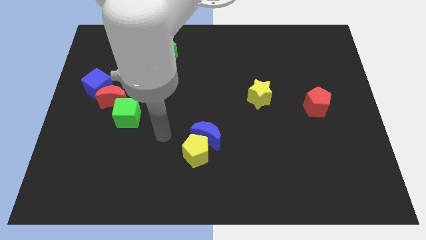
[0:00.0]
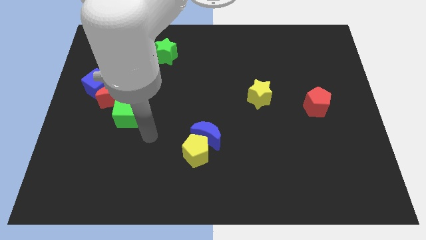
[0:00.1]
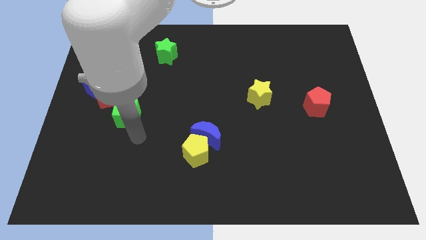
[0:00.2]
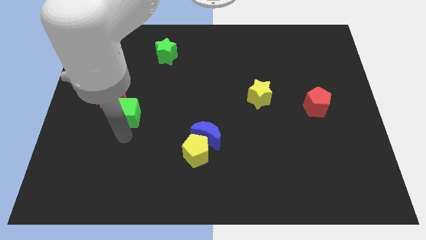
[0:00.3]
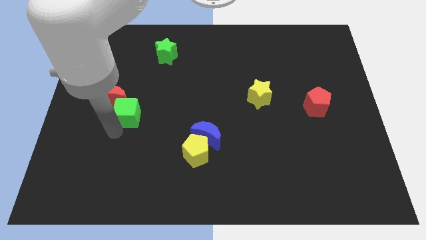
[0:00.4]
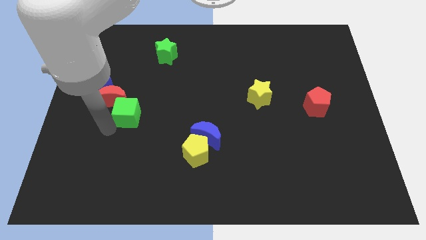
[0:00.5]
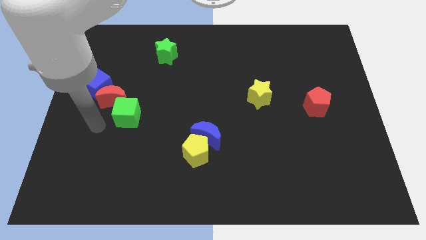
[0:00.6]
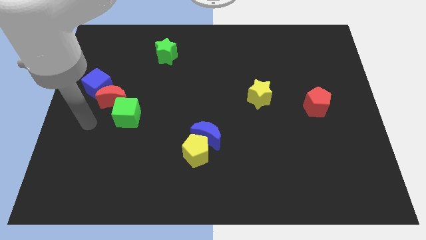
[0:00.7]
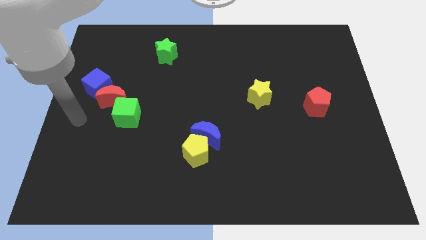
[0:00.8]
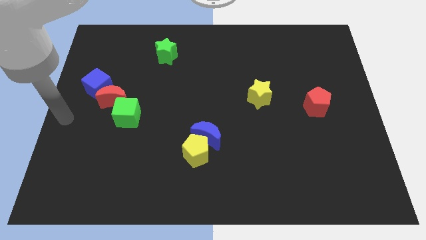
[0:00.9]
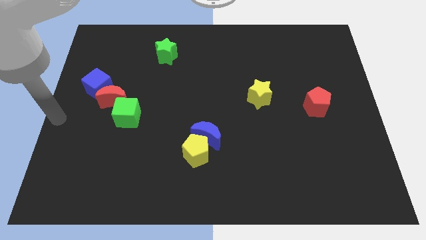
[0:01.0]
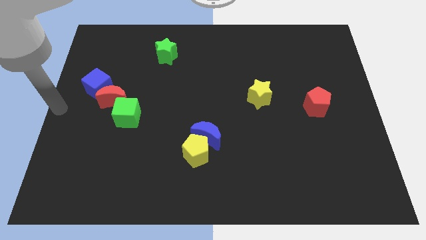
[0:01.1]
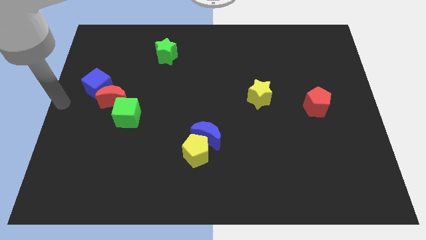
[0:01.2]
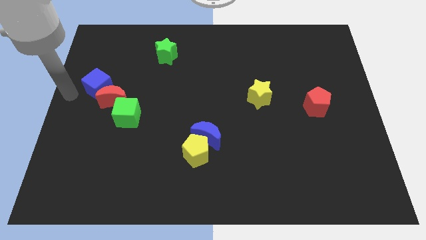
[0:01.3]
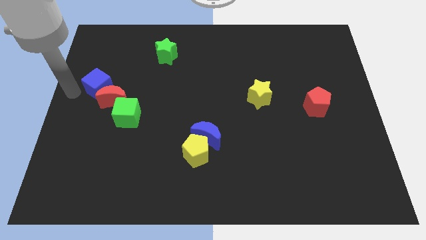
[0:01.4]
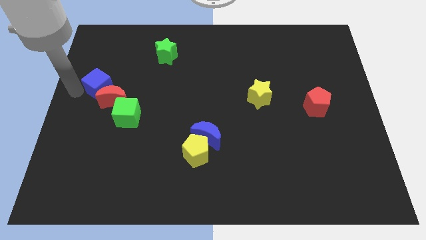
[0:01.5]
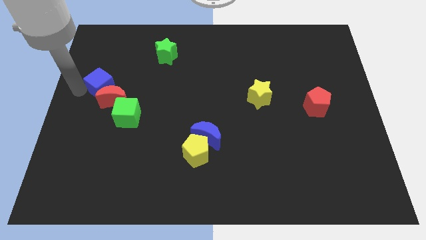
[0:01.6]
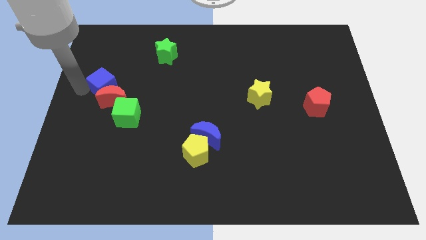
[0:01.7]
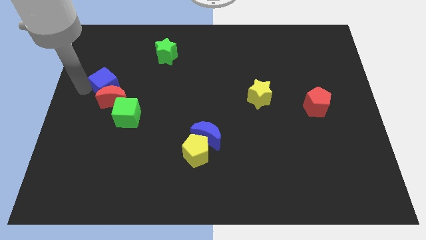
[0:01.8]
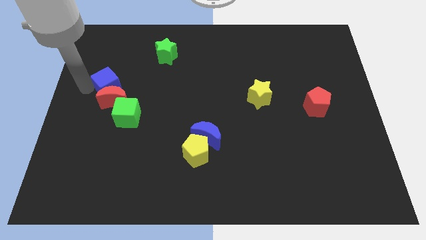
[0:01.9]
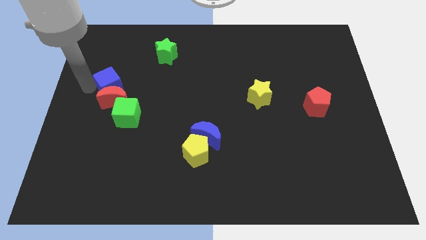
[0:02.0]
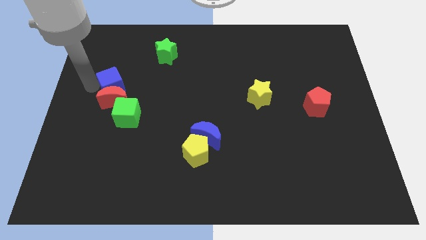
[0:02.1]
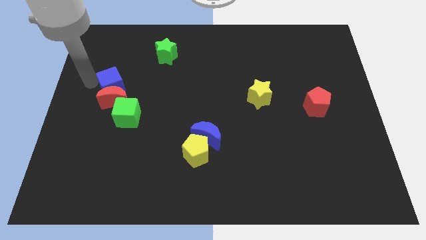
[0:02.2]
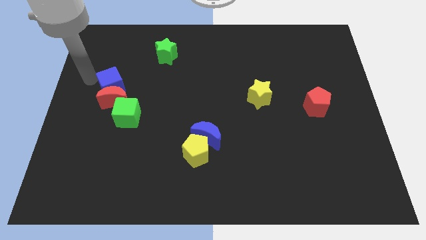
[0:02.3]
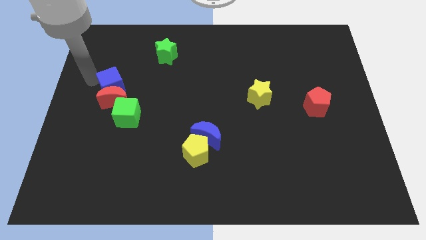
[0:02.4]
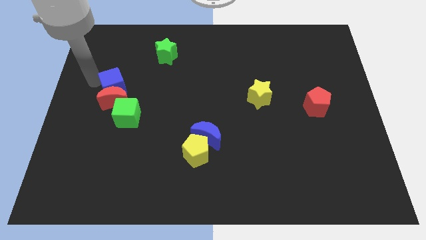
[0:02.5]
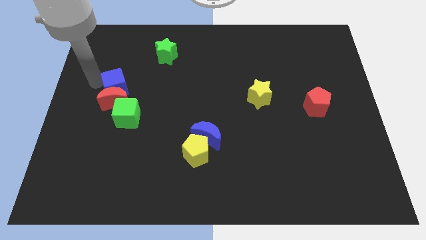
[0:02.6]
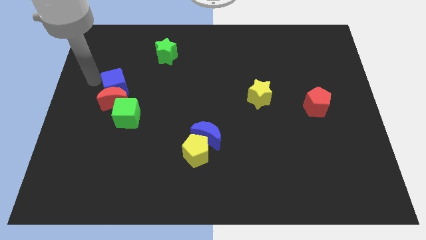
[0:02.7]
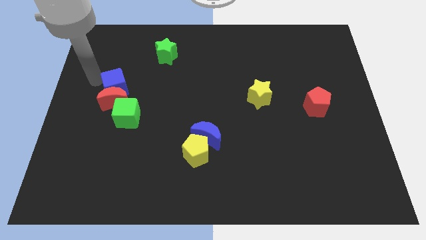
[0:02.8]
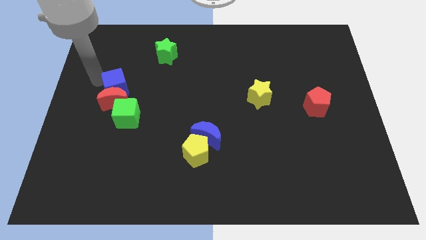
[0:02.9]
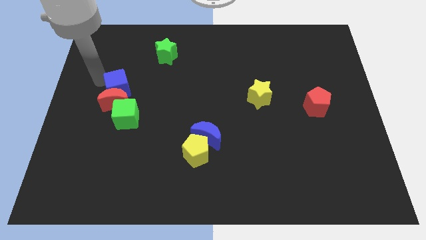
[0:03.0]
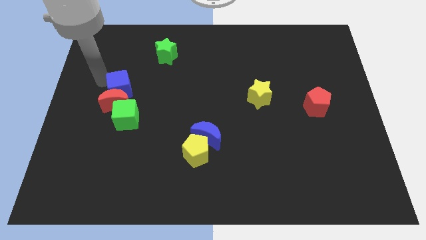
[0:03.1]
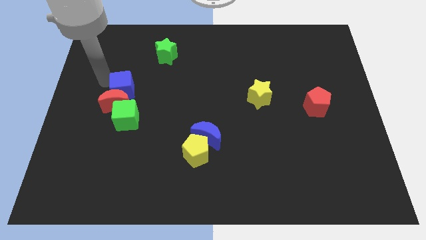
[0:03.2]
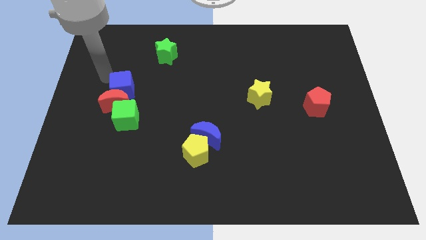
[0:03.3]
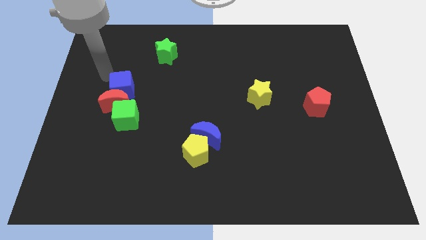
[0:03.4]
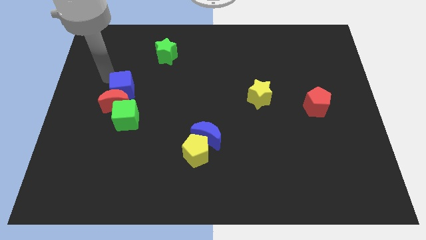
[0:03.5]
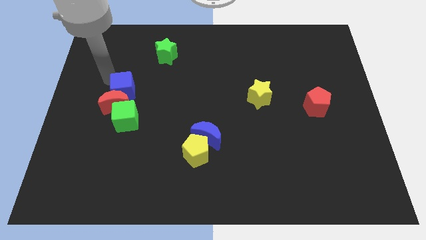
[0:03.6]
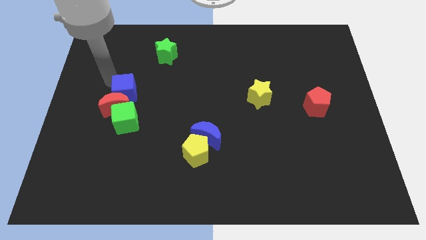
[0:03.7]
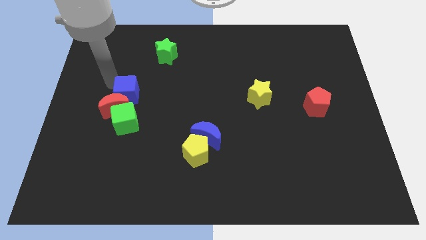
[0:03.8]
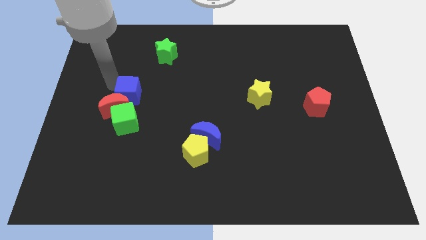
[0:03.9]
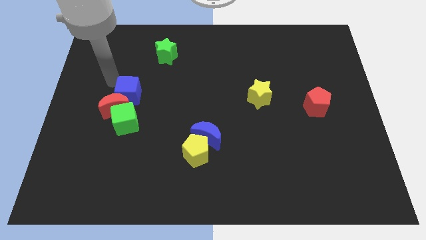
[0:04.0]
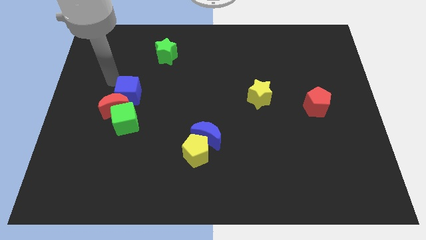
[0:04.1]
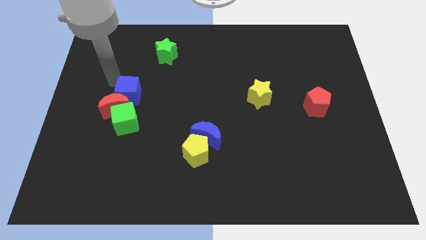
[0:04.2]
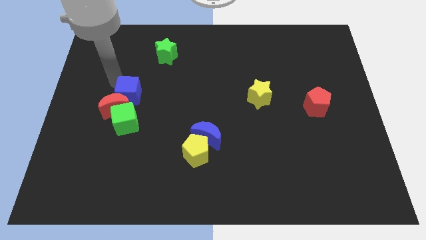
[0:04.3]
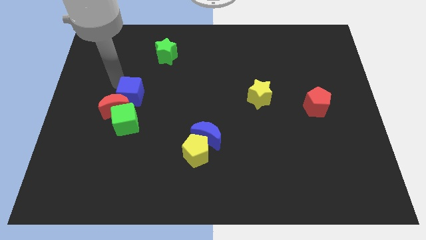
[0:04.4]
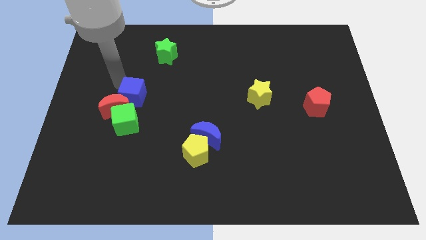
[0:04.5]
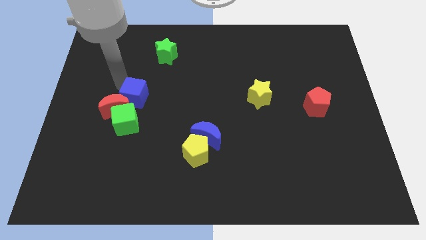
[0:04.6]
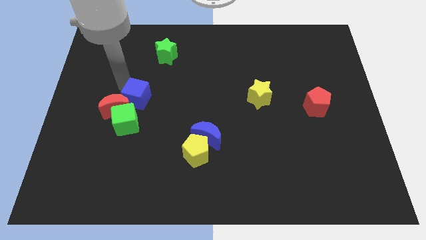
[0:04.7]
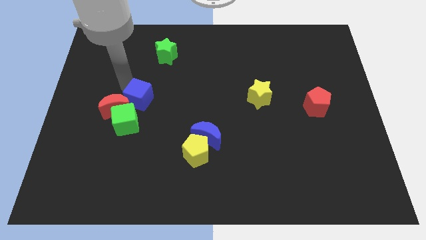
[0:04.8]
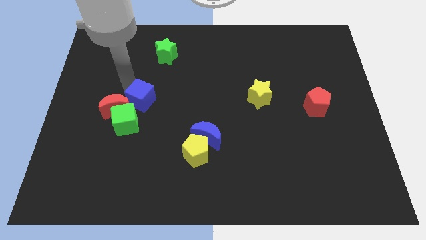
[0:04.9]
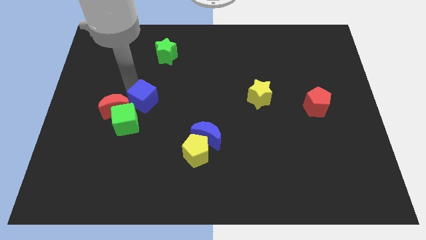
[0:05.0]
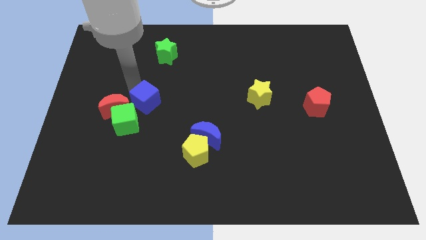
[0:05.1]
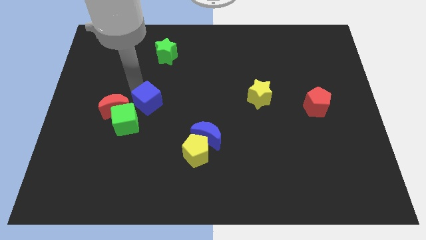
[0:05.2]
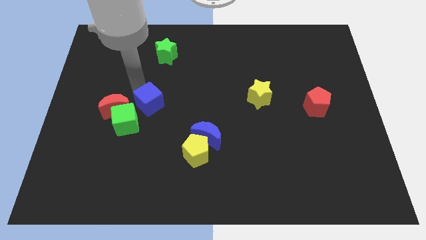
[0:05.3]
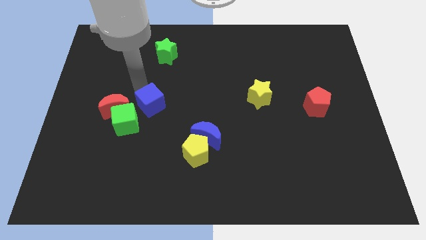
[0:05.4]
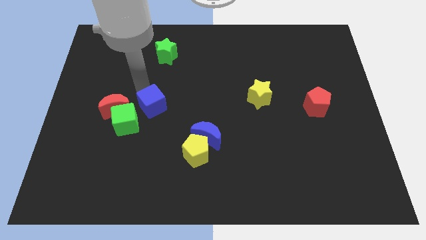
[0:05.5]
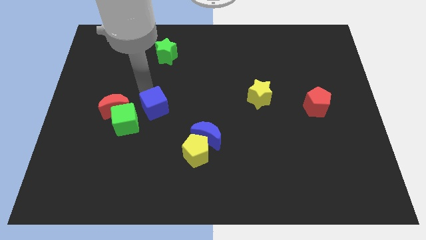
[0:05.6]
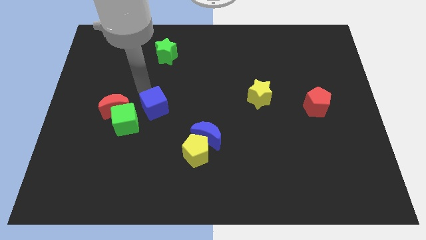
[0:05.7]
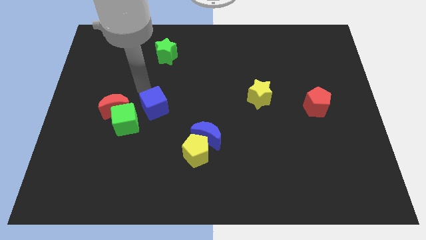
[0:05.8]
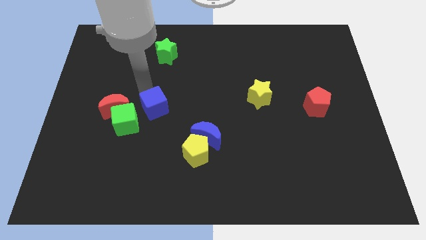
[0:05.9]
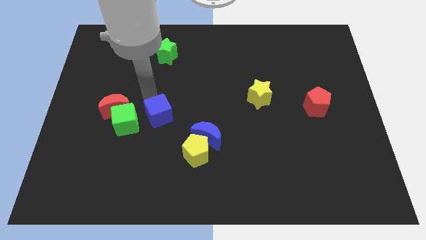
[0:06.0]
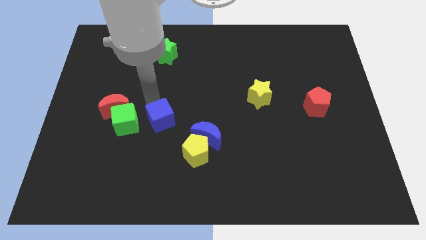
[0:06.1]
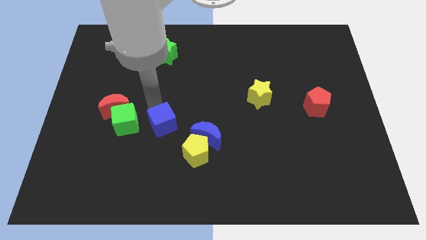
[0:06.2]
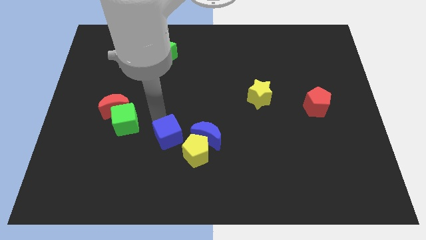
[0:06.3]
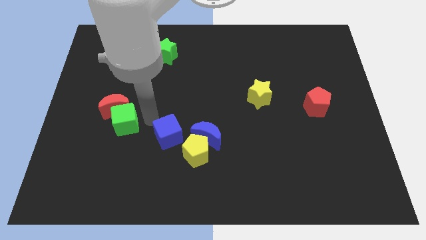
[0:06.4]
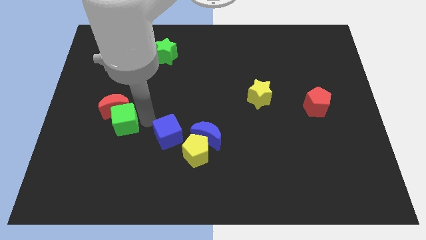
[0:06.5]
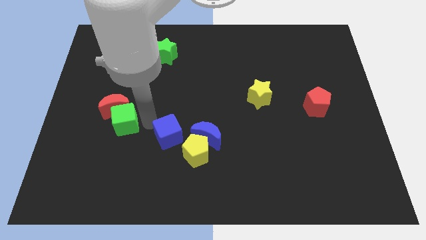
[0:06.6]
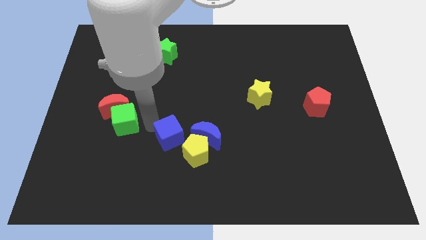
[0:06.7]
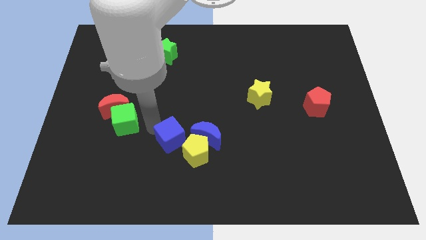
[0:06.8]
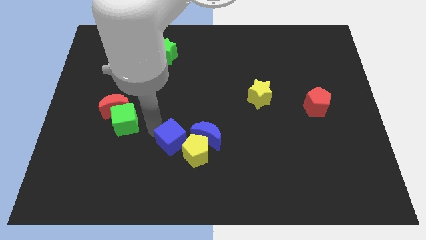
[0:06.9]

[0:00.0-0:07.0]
push the blue cube next to the yellow pentagon

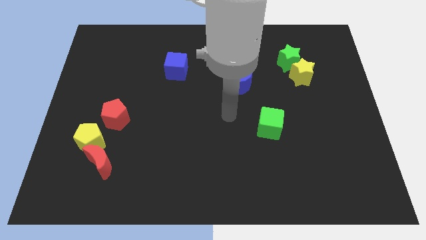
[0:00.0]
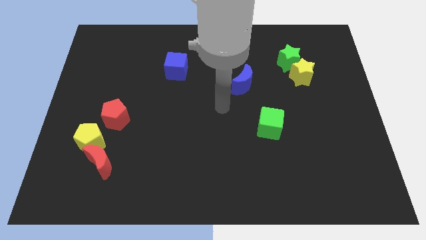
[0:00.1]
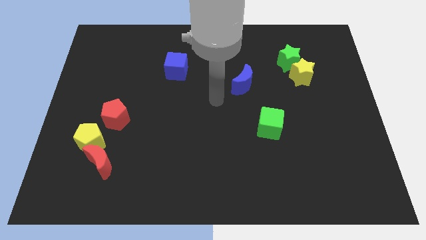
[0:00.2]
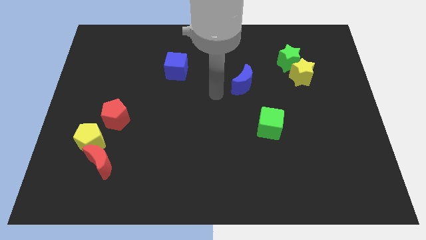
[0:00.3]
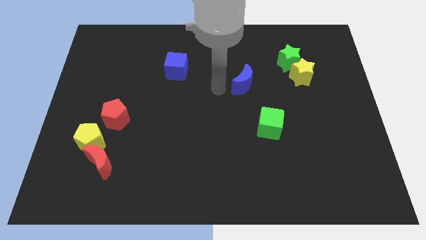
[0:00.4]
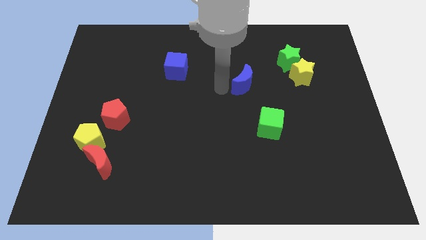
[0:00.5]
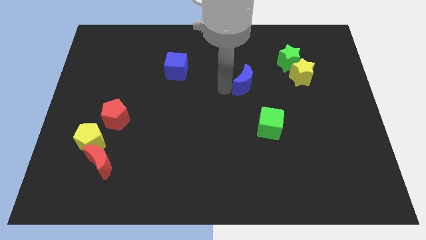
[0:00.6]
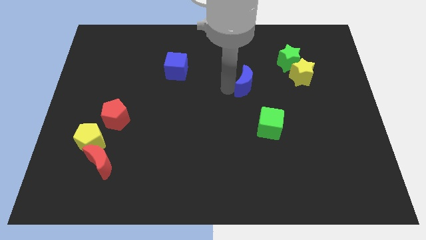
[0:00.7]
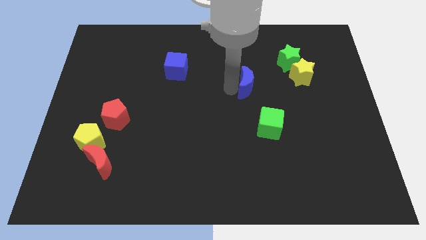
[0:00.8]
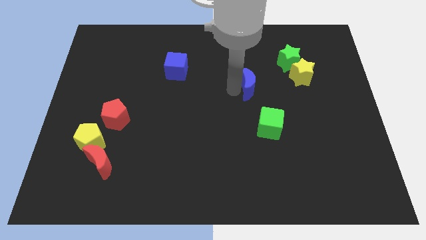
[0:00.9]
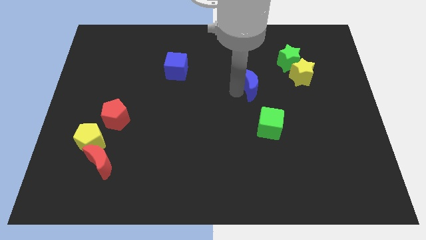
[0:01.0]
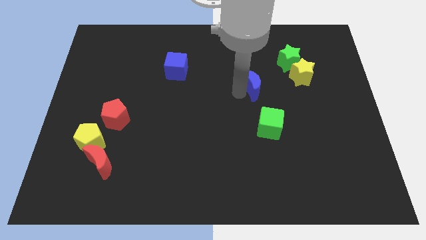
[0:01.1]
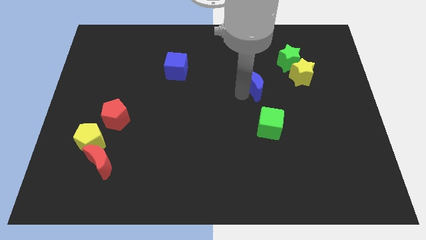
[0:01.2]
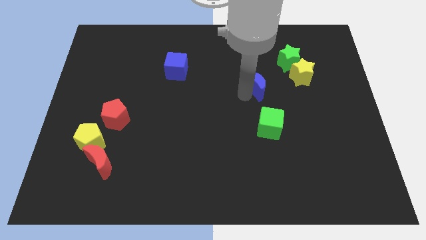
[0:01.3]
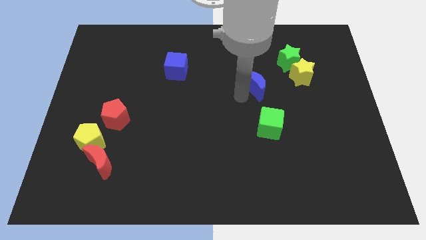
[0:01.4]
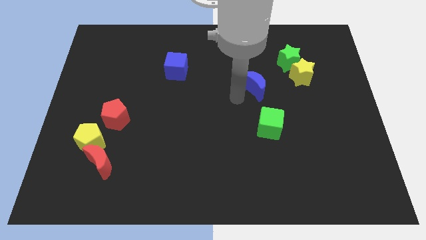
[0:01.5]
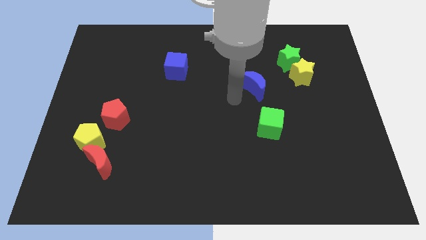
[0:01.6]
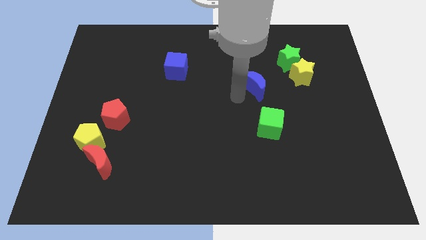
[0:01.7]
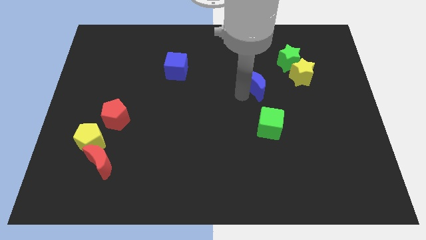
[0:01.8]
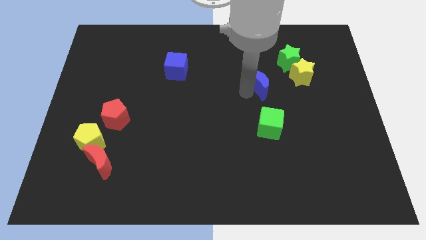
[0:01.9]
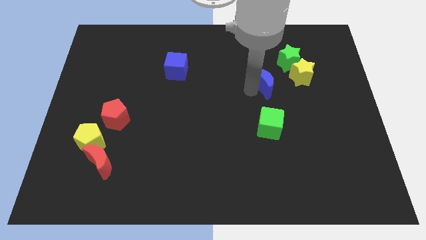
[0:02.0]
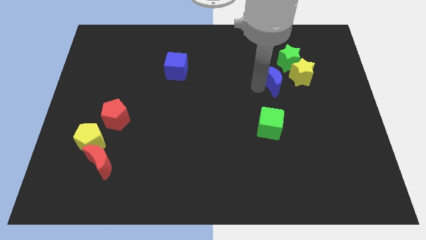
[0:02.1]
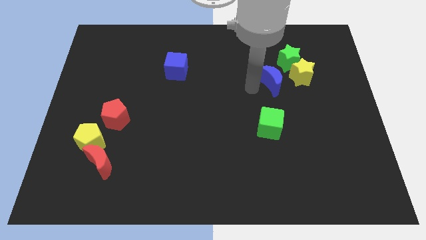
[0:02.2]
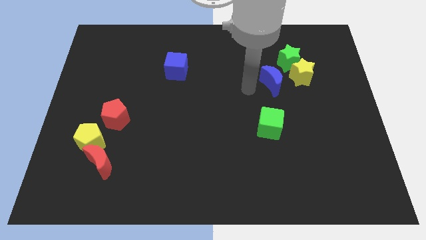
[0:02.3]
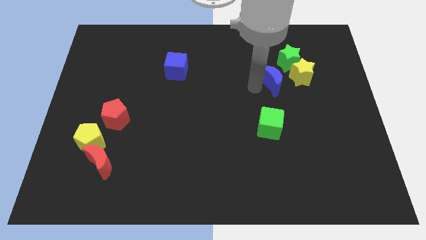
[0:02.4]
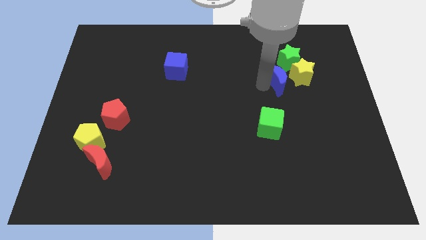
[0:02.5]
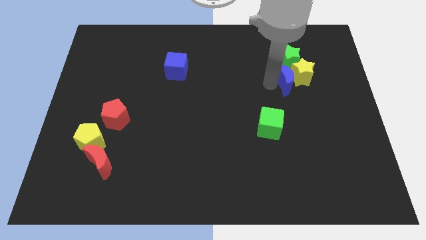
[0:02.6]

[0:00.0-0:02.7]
move the blue moon towards the yellow star
